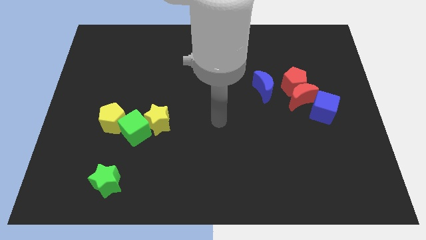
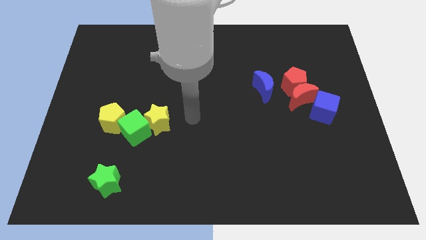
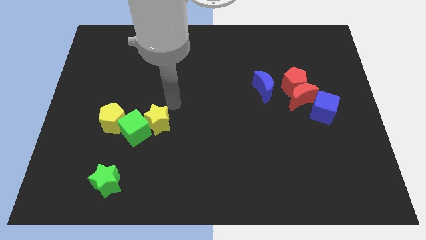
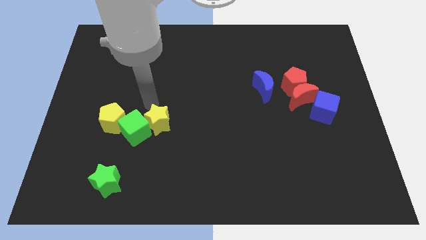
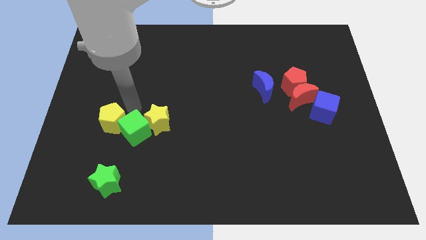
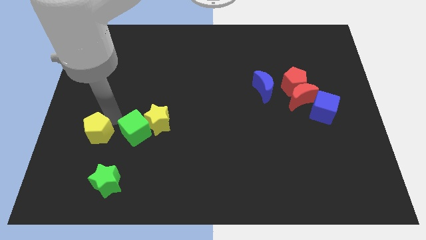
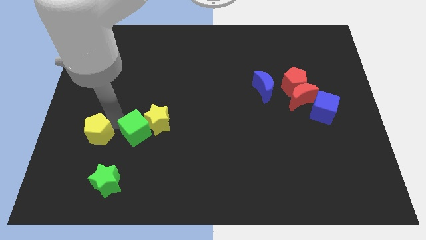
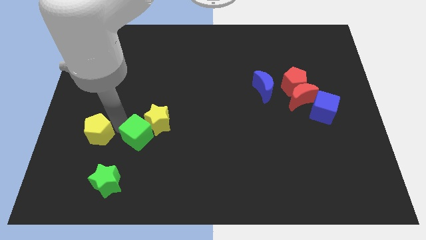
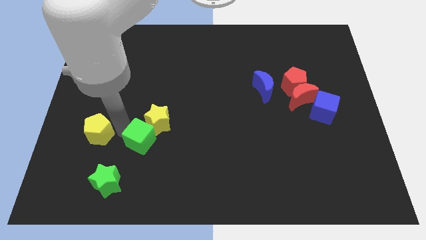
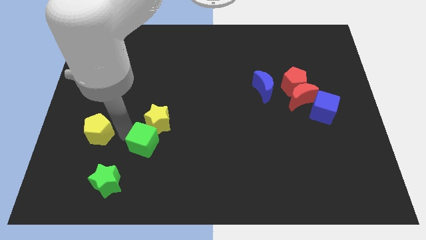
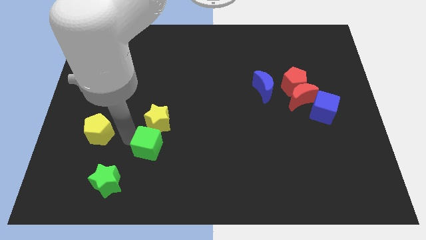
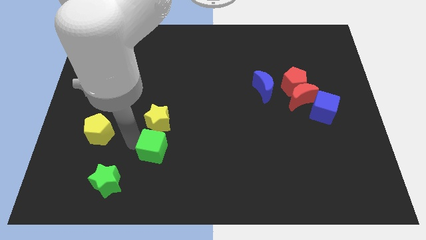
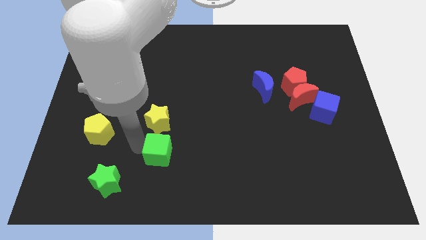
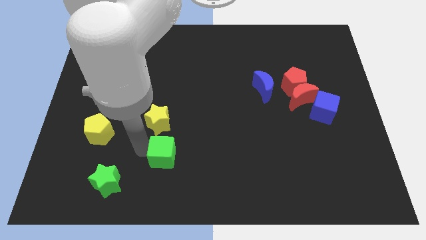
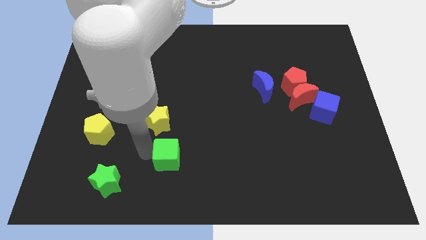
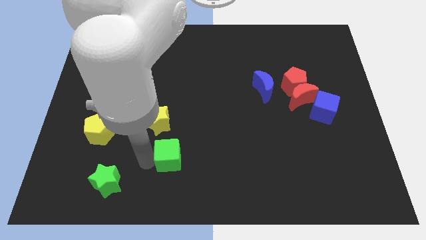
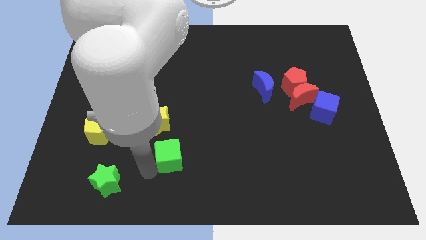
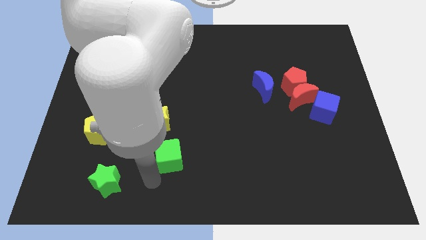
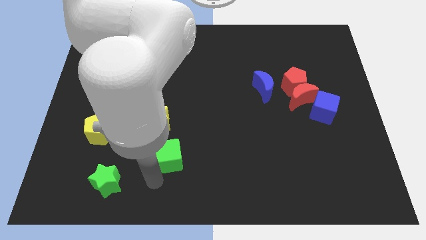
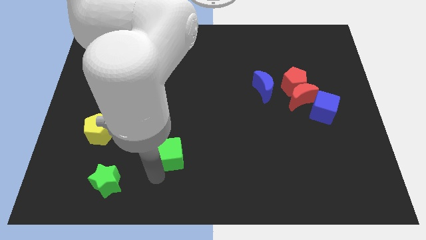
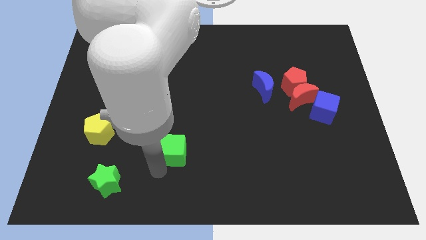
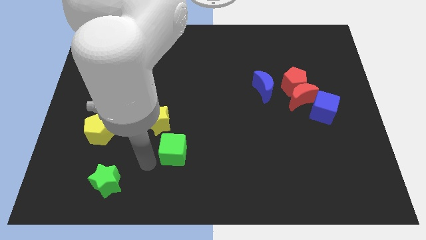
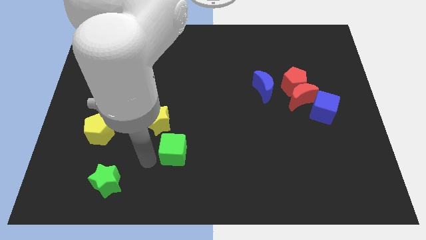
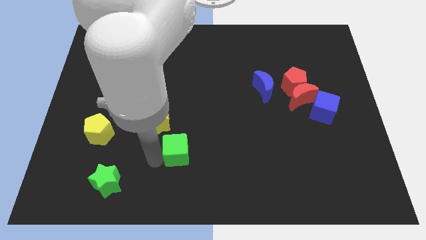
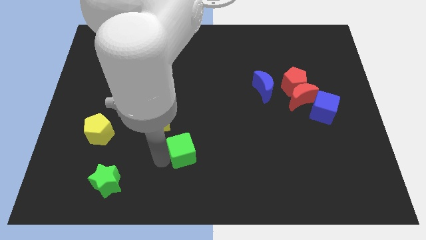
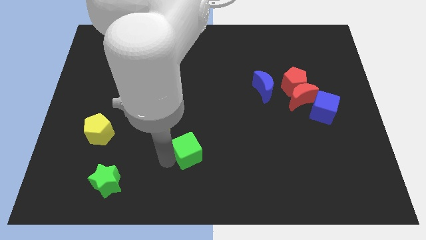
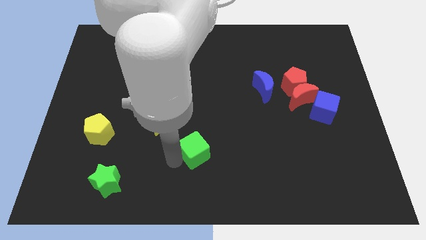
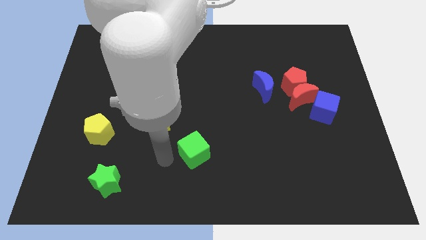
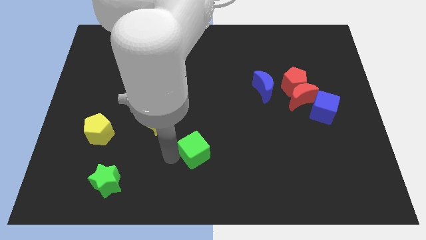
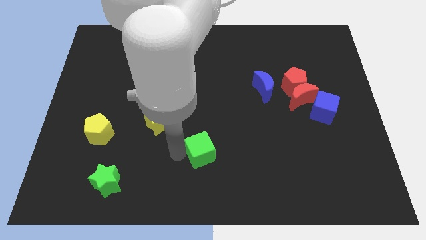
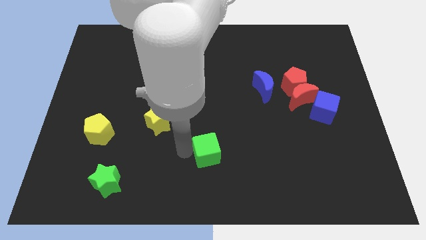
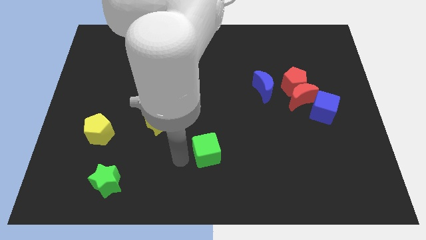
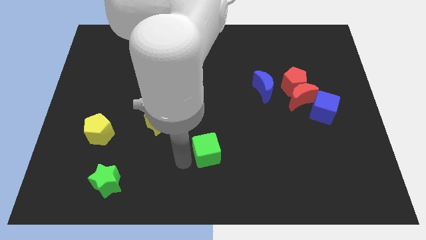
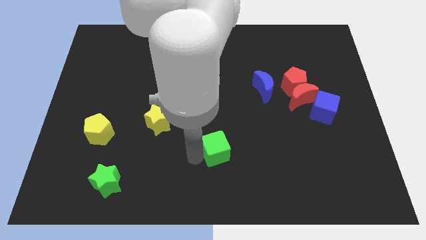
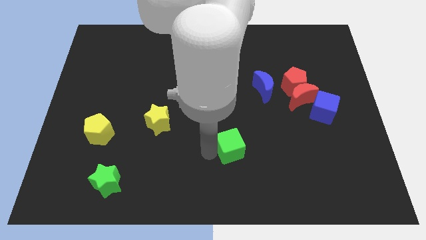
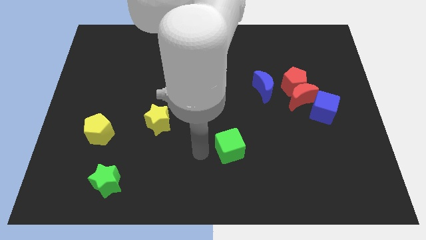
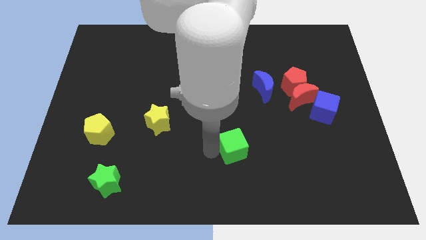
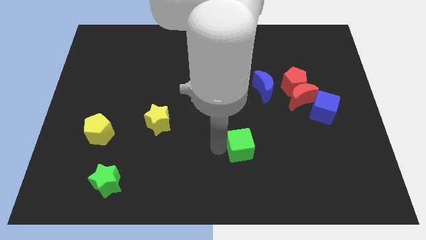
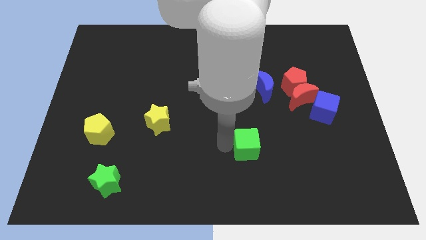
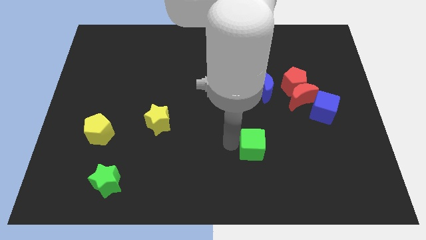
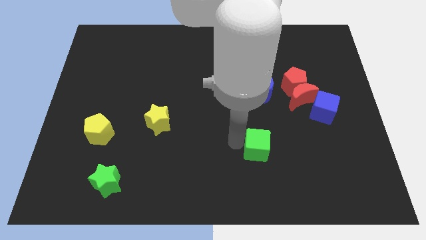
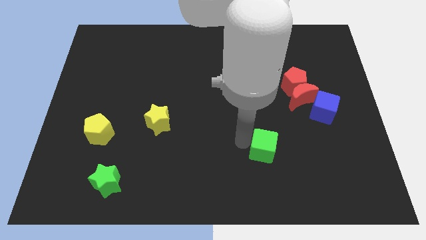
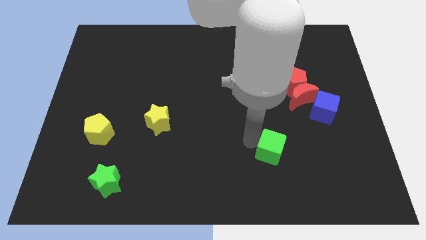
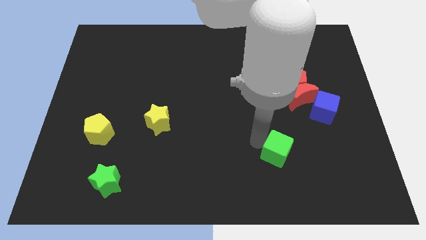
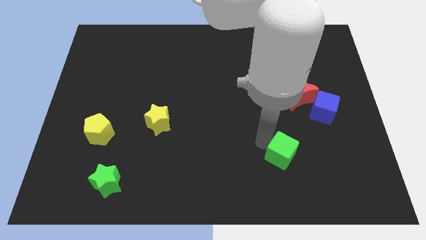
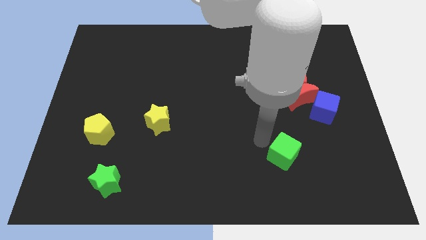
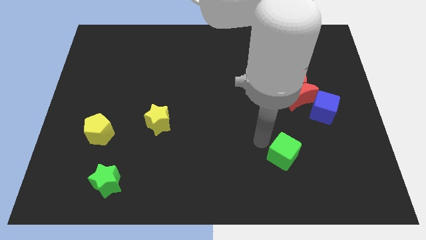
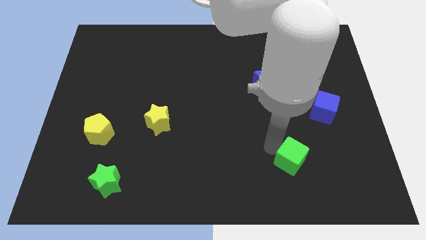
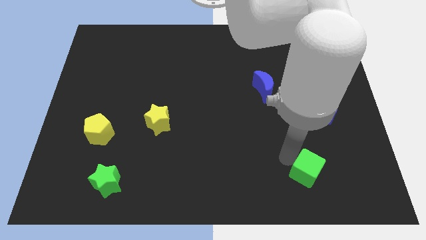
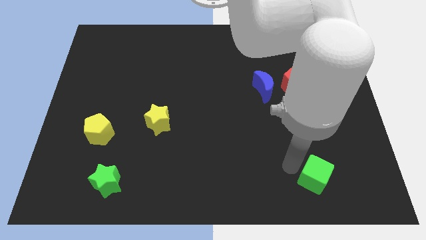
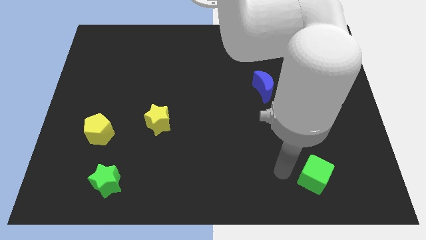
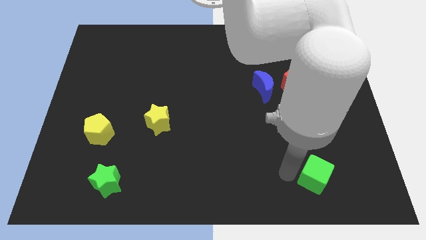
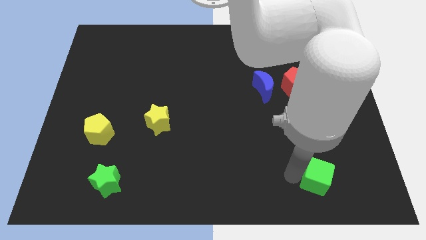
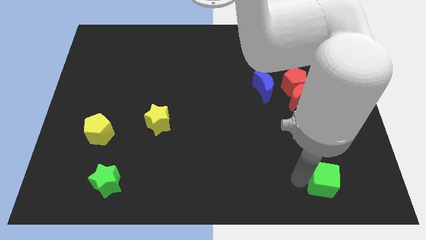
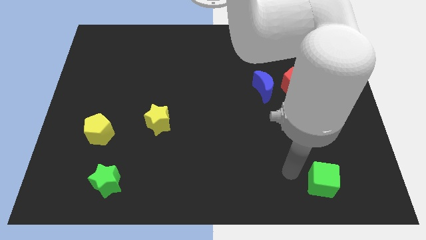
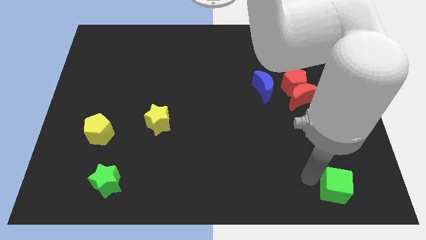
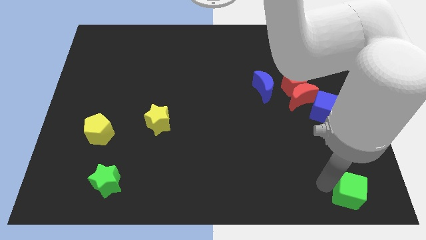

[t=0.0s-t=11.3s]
put the green cube to the bottom right corner

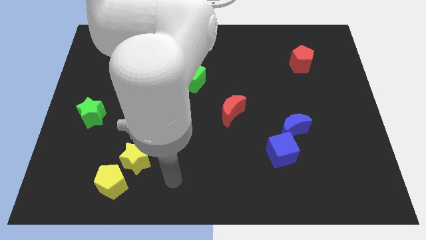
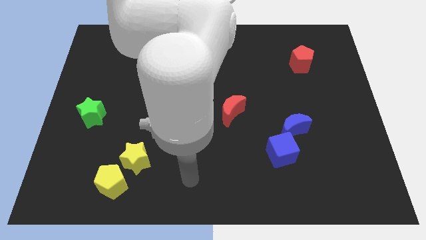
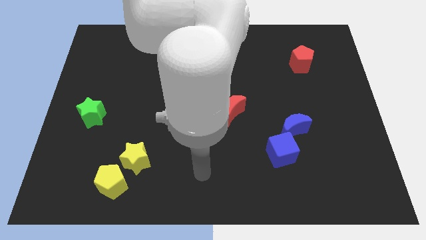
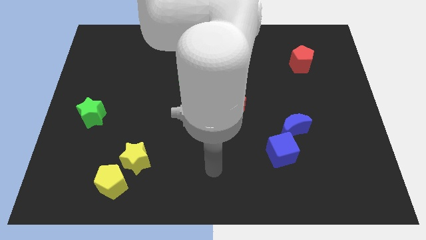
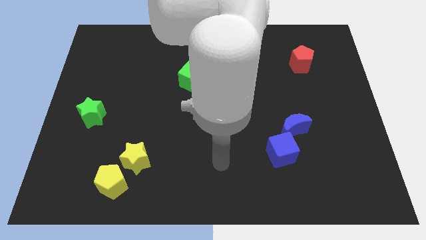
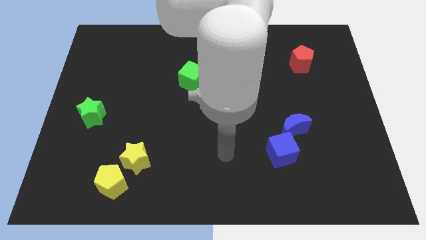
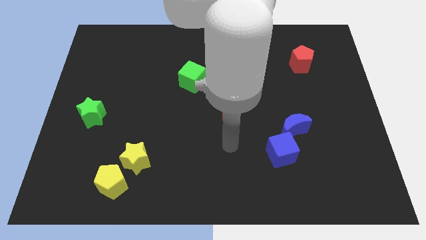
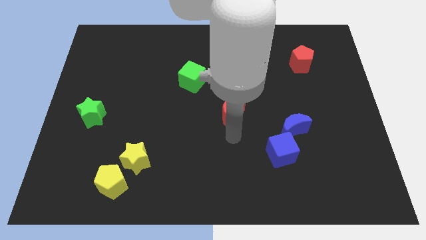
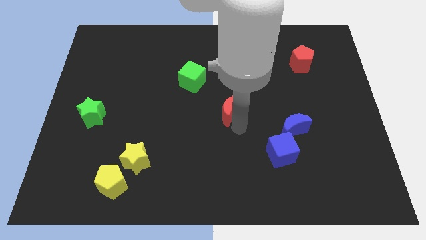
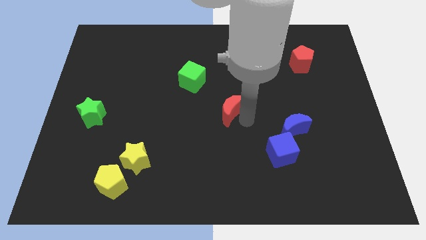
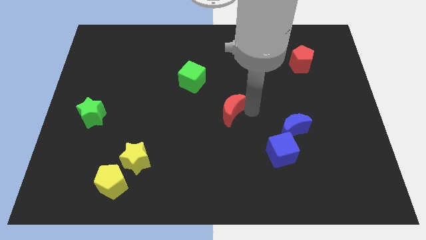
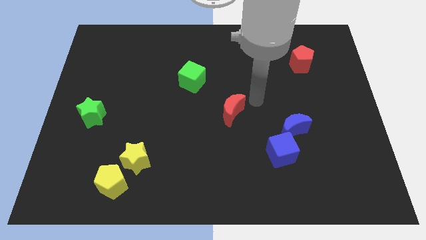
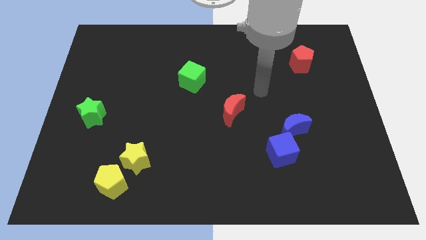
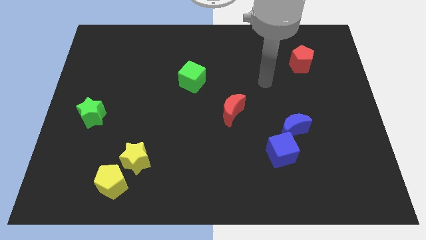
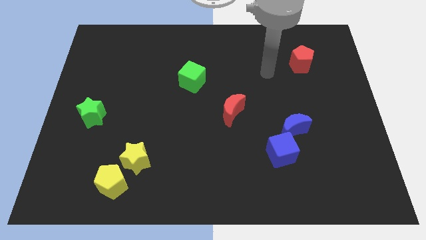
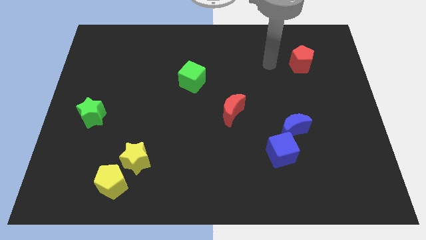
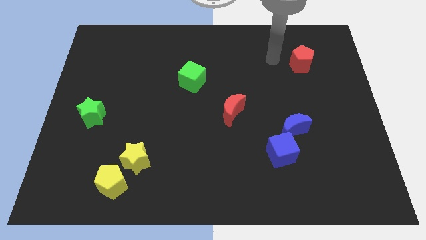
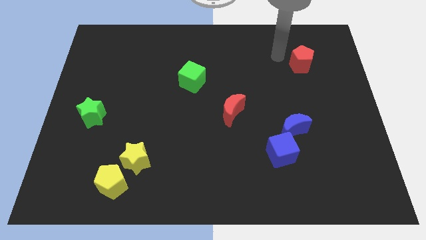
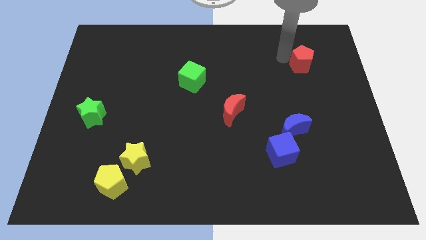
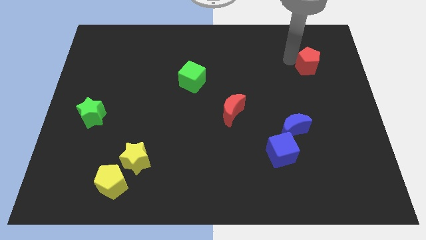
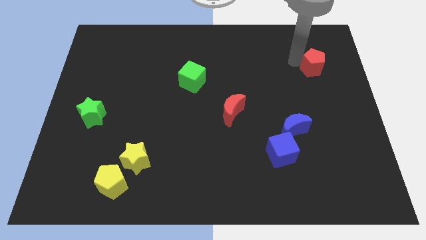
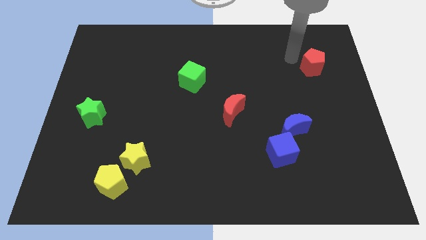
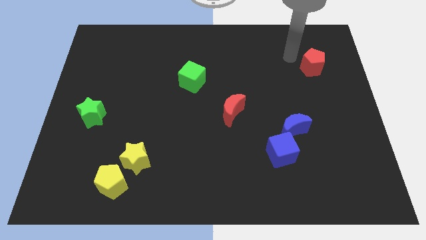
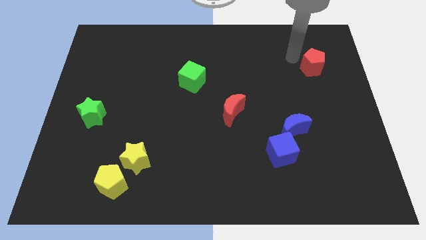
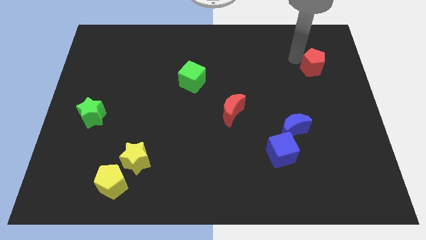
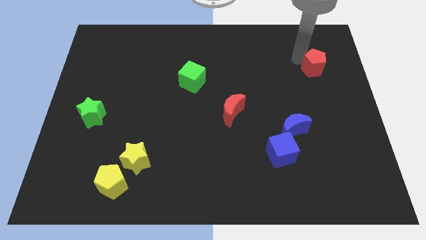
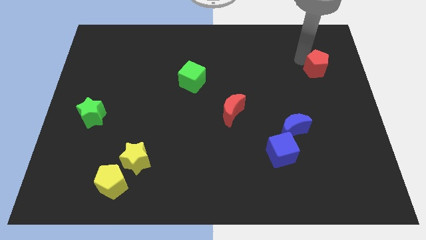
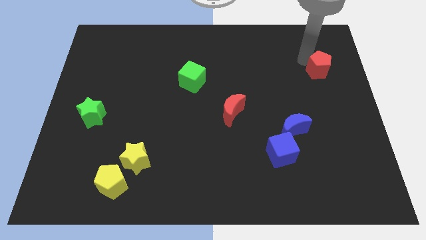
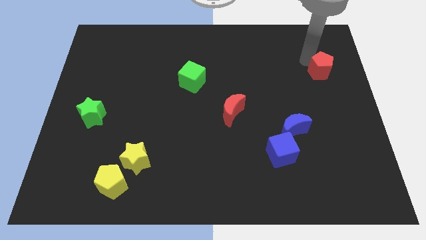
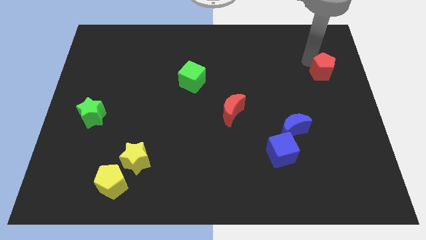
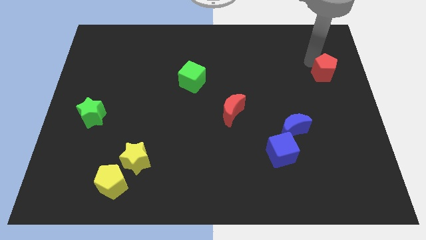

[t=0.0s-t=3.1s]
push the red pentagon to the right side
